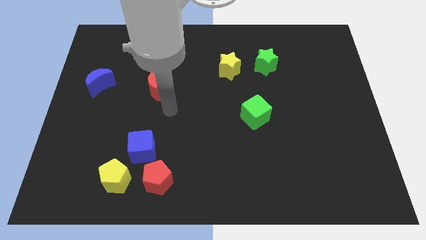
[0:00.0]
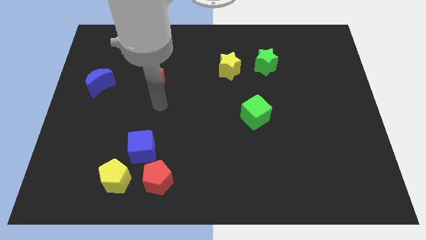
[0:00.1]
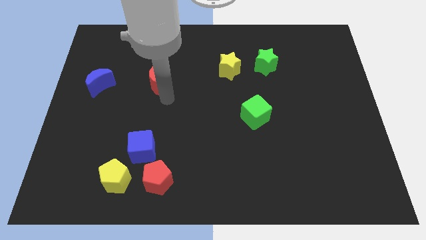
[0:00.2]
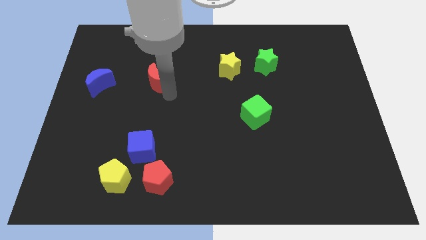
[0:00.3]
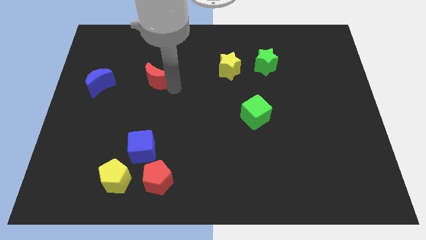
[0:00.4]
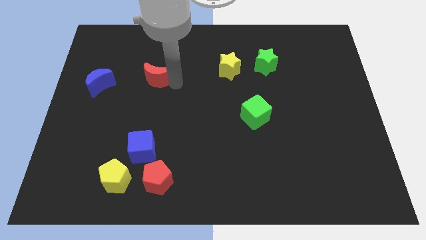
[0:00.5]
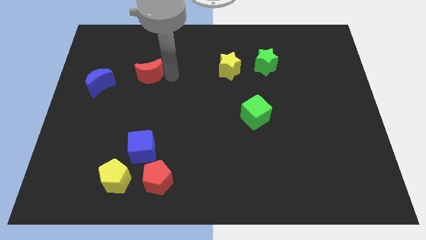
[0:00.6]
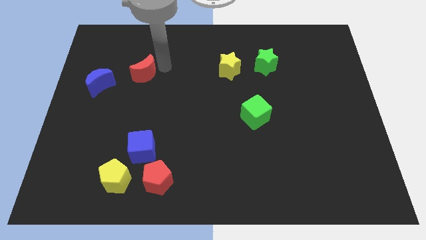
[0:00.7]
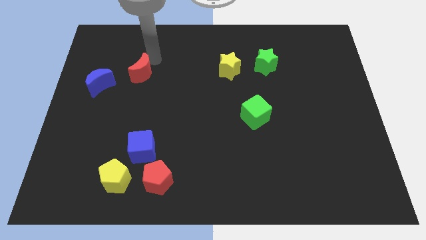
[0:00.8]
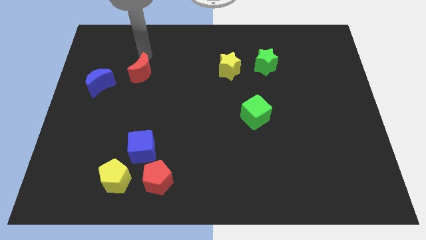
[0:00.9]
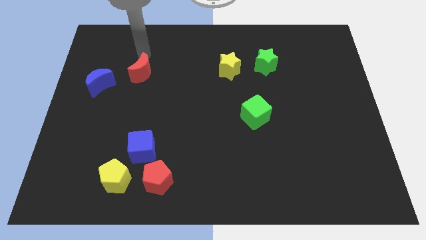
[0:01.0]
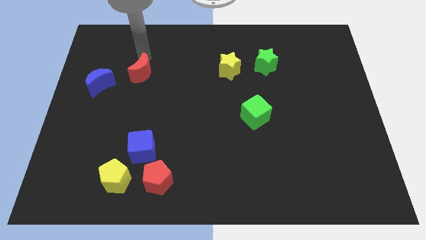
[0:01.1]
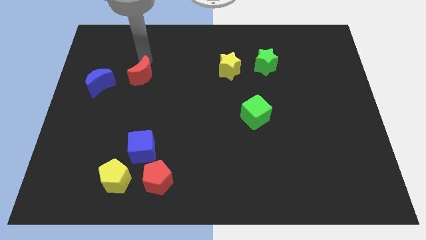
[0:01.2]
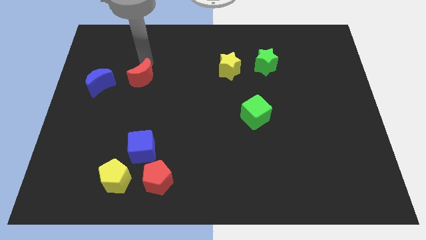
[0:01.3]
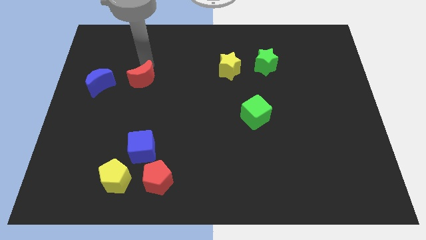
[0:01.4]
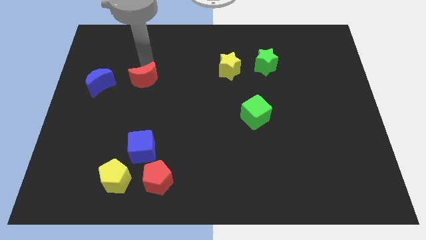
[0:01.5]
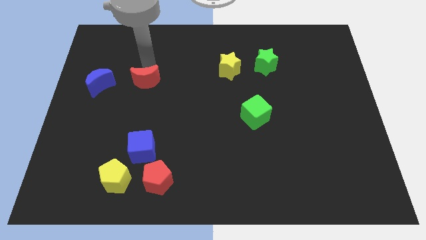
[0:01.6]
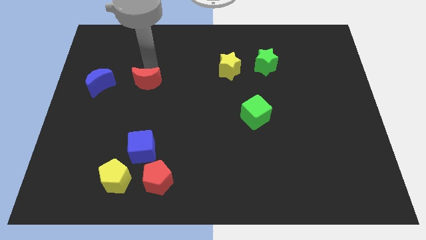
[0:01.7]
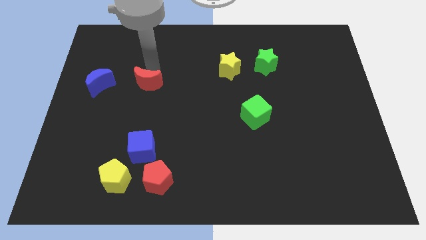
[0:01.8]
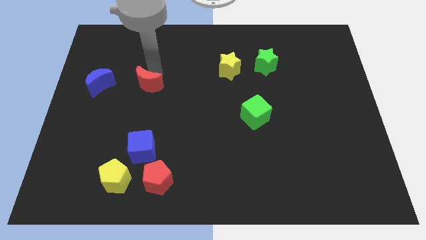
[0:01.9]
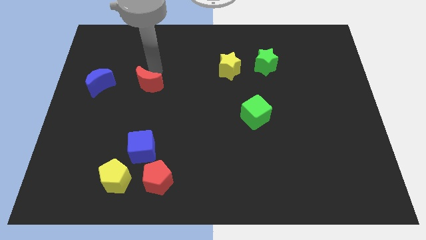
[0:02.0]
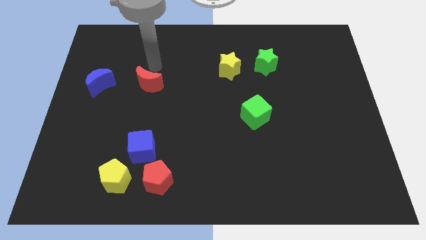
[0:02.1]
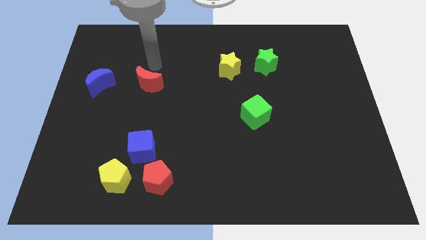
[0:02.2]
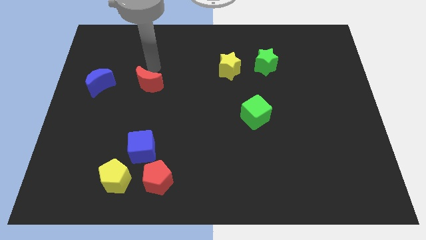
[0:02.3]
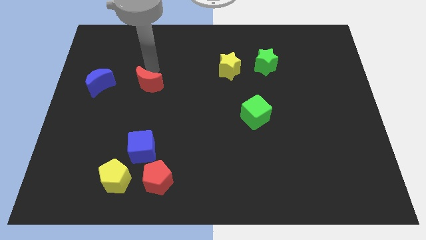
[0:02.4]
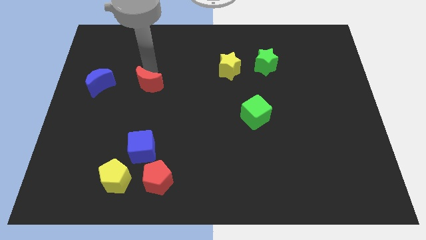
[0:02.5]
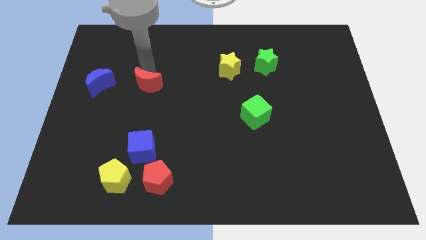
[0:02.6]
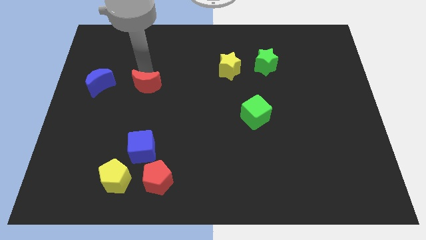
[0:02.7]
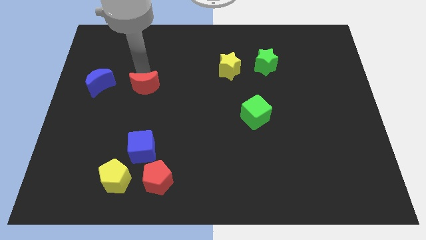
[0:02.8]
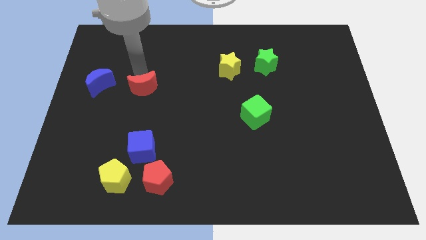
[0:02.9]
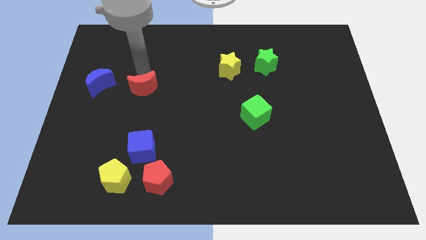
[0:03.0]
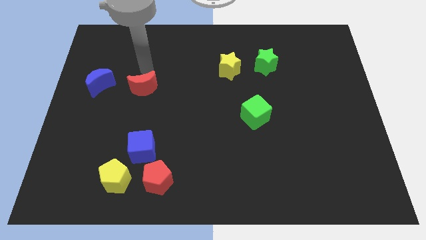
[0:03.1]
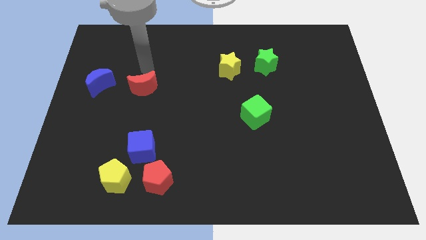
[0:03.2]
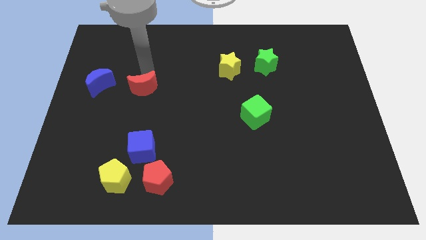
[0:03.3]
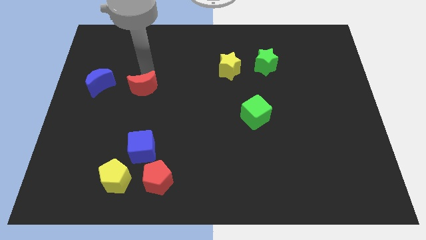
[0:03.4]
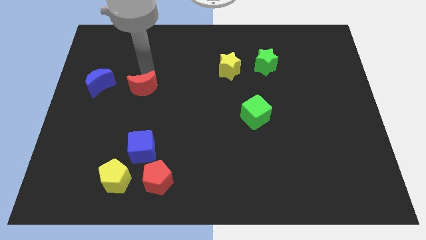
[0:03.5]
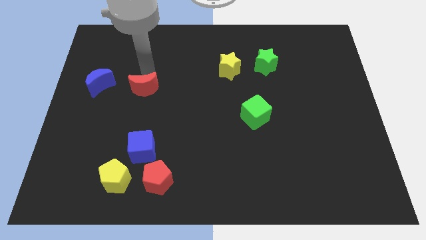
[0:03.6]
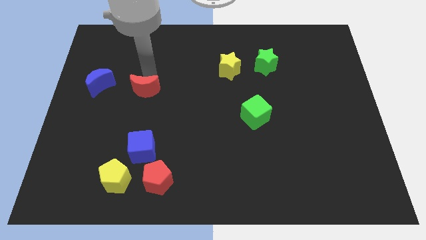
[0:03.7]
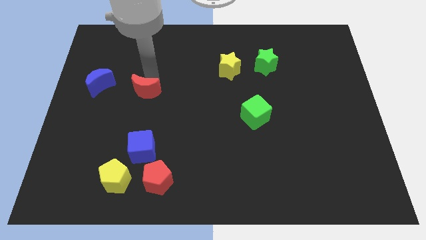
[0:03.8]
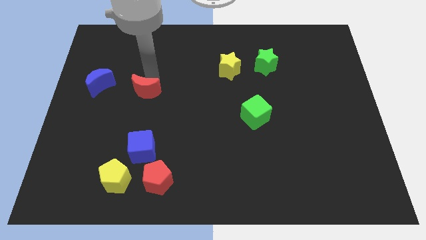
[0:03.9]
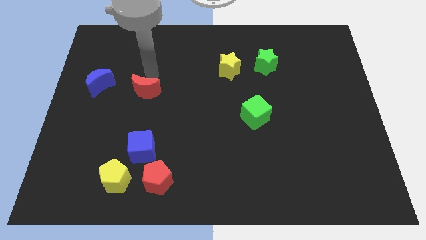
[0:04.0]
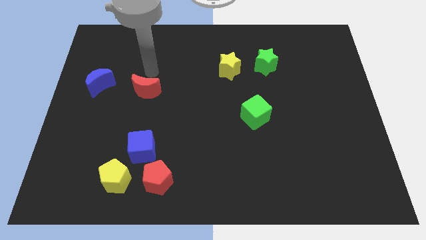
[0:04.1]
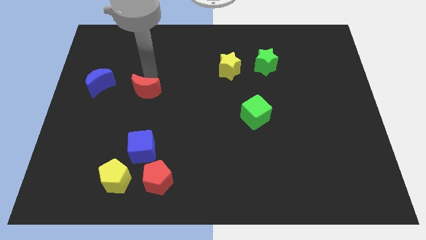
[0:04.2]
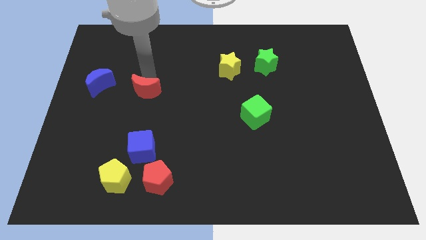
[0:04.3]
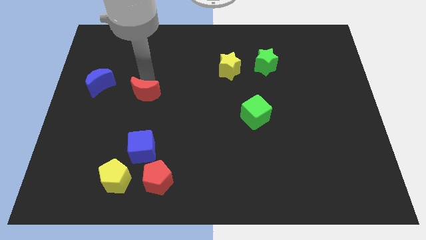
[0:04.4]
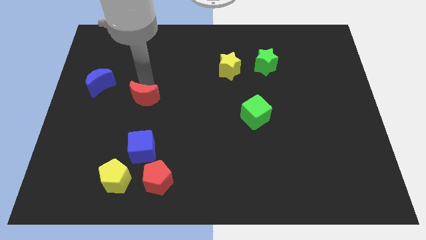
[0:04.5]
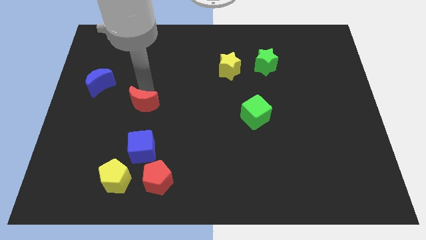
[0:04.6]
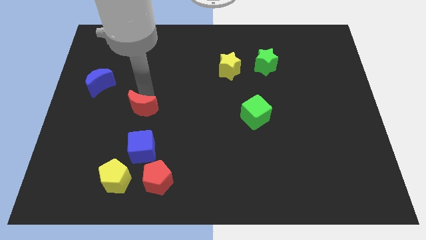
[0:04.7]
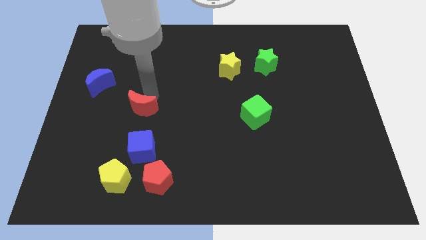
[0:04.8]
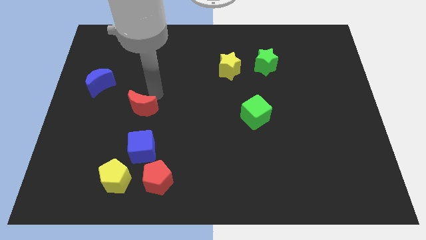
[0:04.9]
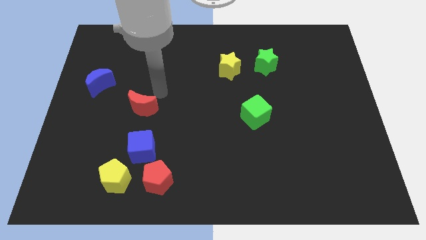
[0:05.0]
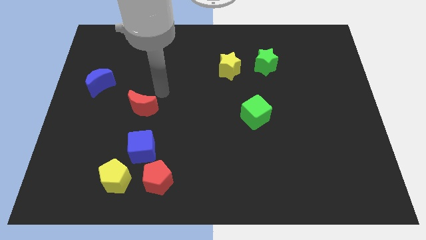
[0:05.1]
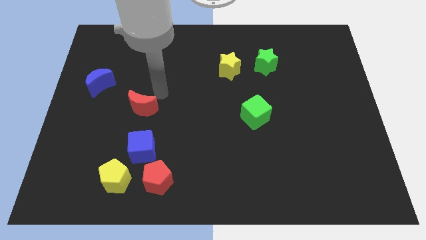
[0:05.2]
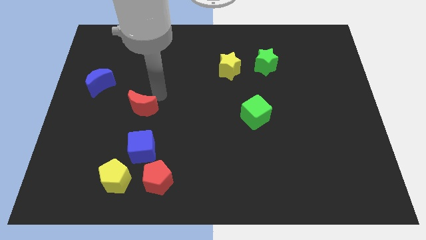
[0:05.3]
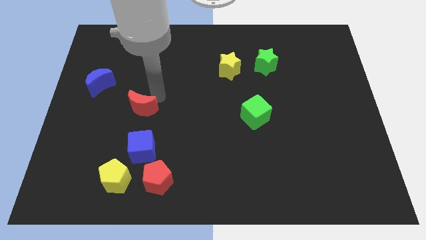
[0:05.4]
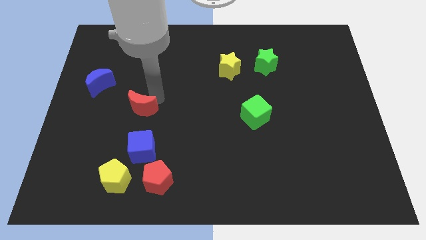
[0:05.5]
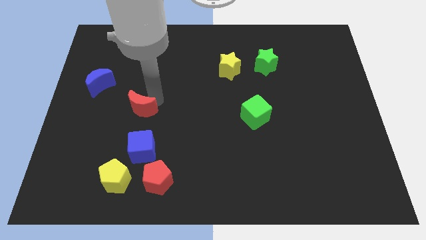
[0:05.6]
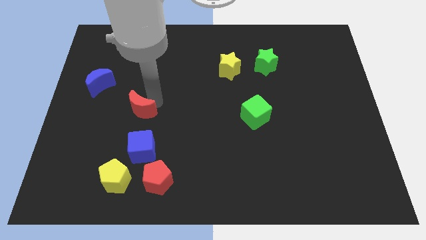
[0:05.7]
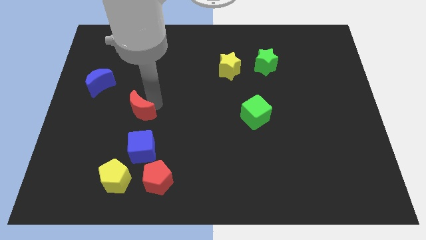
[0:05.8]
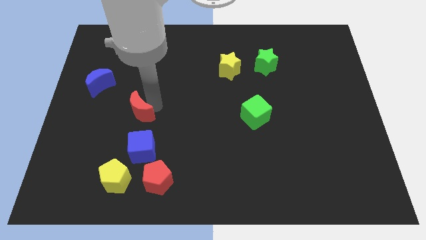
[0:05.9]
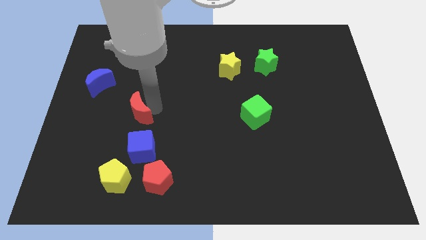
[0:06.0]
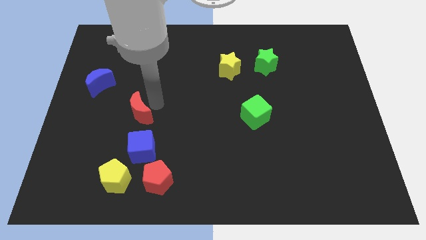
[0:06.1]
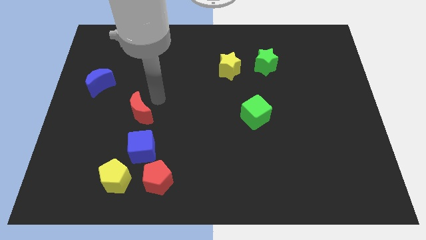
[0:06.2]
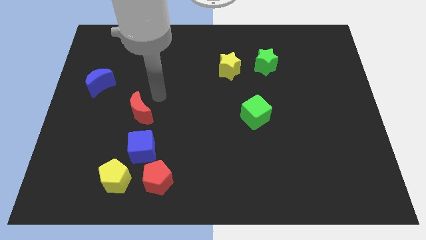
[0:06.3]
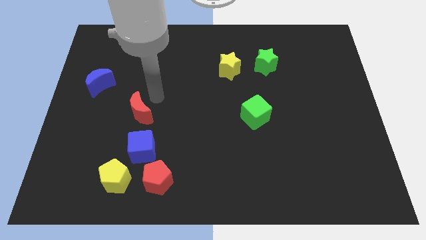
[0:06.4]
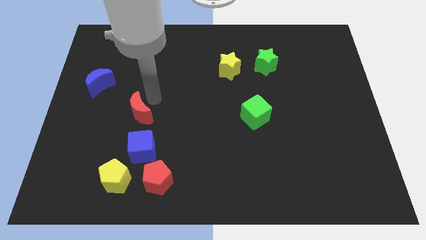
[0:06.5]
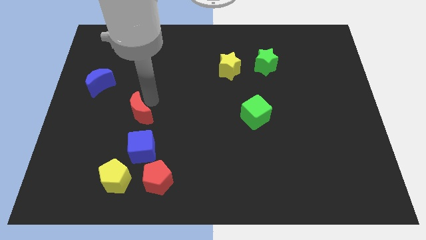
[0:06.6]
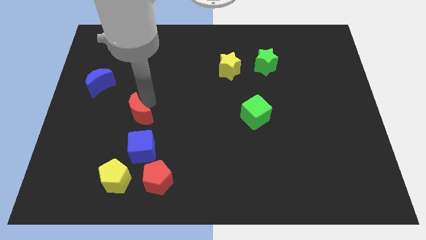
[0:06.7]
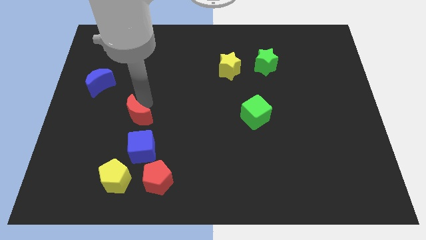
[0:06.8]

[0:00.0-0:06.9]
put the red moon to the top left of the blue cube

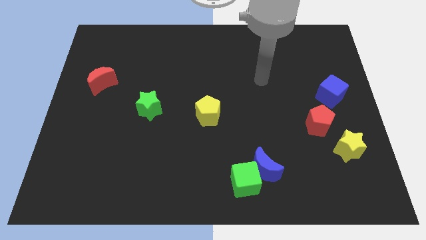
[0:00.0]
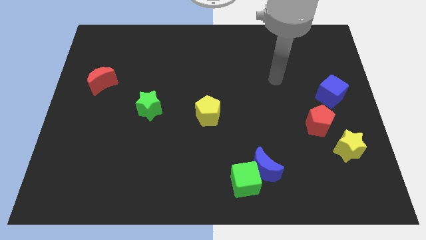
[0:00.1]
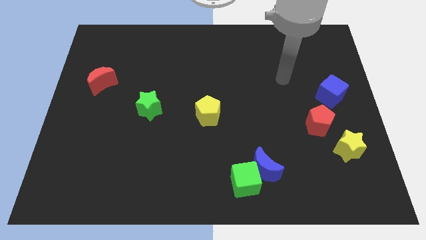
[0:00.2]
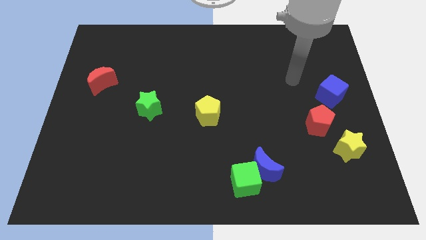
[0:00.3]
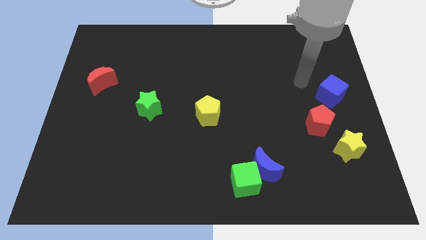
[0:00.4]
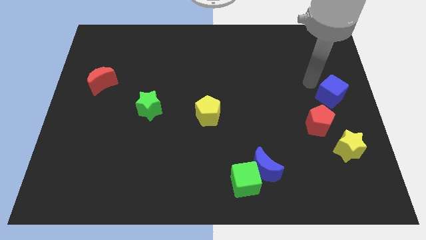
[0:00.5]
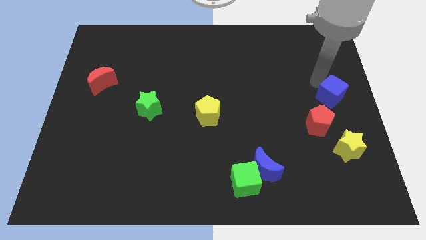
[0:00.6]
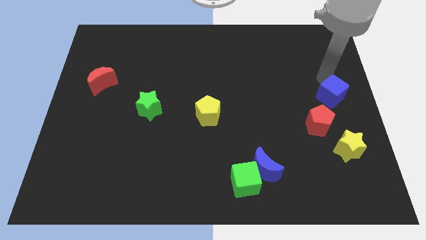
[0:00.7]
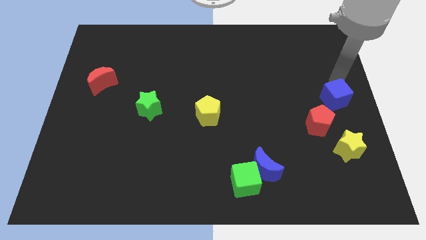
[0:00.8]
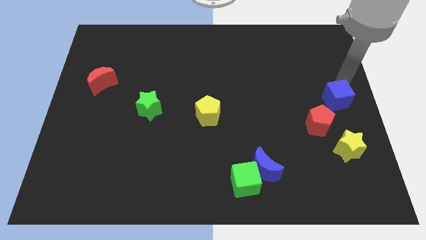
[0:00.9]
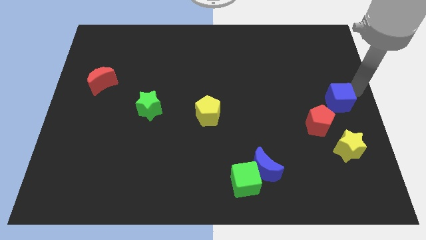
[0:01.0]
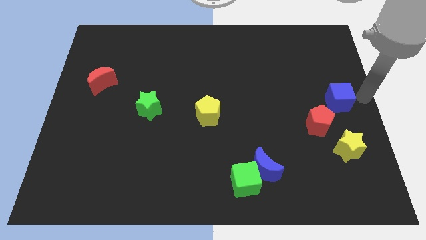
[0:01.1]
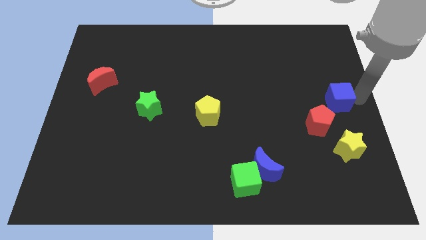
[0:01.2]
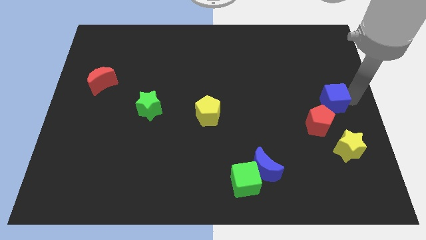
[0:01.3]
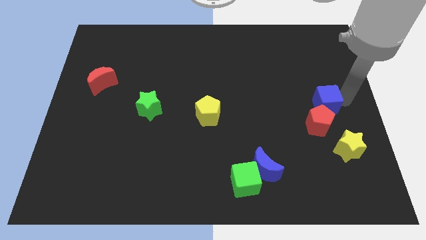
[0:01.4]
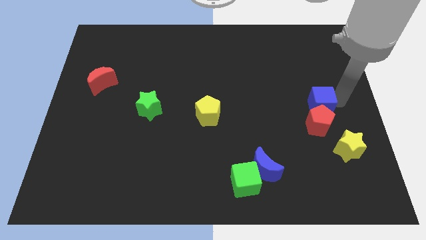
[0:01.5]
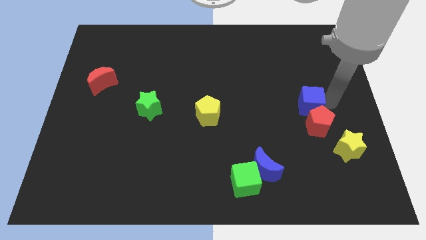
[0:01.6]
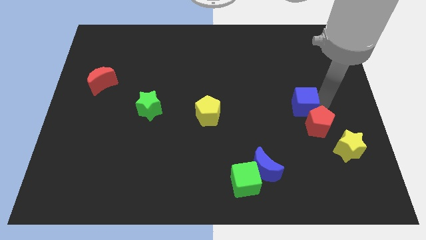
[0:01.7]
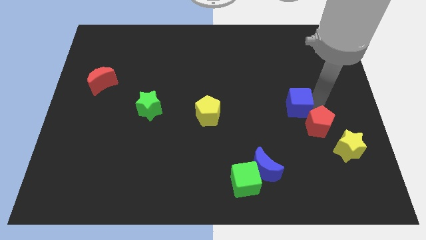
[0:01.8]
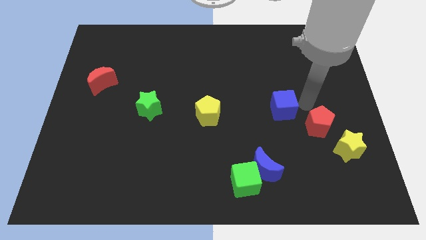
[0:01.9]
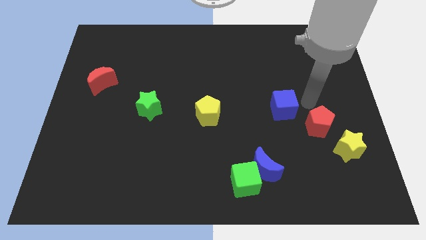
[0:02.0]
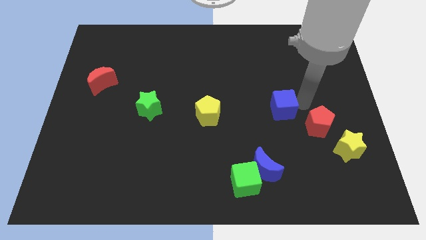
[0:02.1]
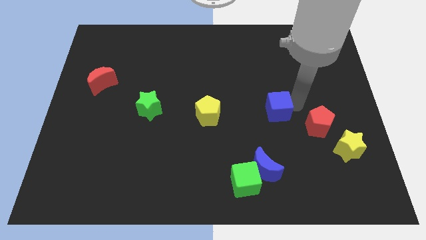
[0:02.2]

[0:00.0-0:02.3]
push the blue cube to the right side of the yellow pentagon
